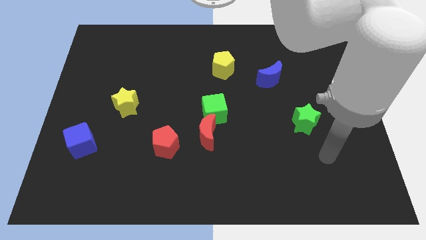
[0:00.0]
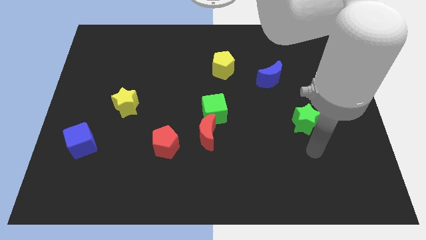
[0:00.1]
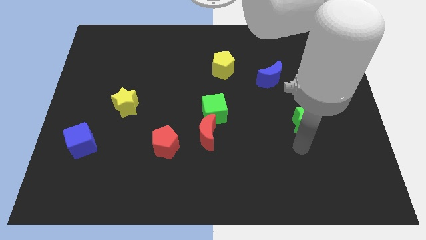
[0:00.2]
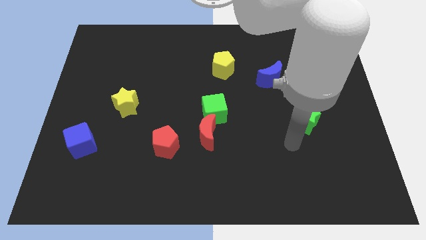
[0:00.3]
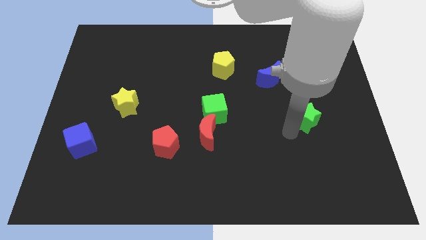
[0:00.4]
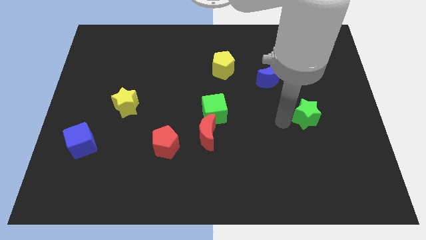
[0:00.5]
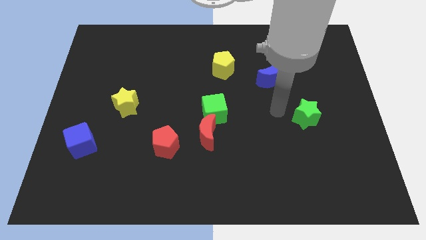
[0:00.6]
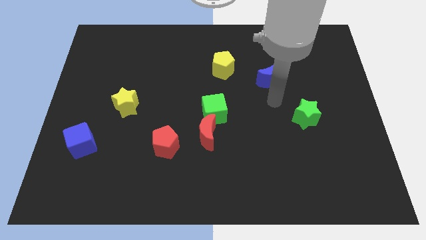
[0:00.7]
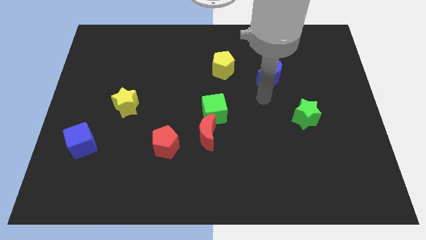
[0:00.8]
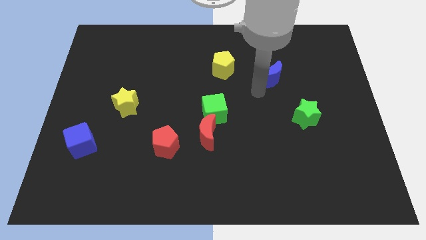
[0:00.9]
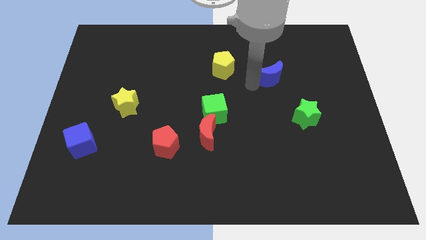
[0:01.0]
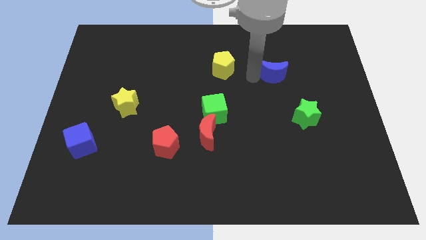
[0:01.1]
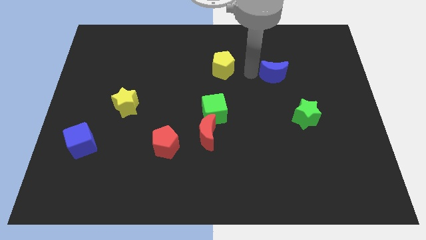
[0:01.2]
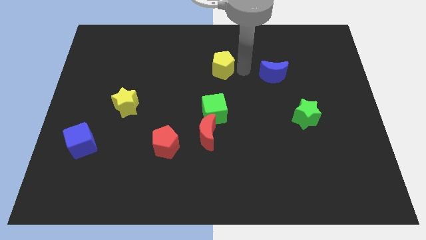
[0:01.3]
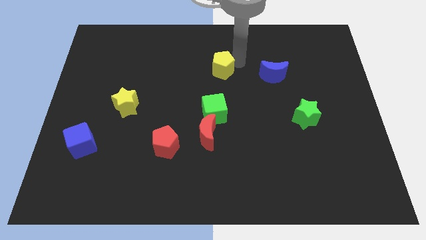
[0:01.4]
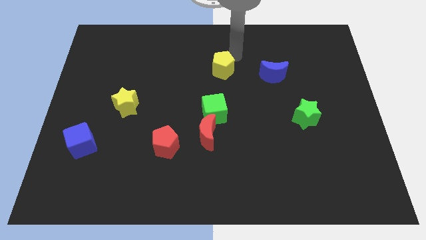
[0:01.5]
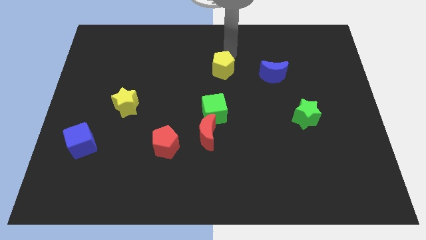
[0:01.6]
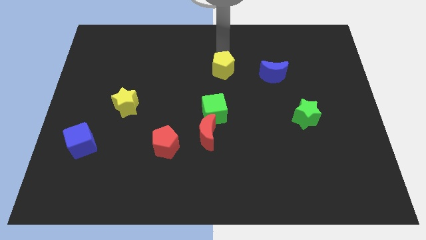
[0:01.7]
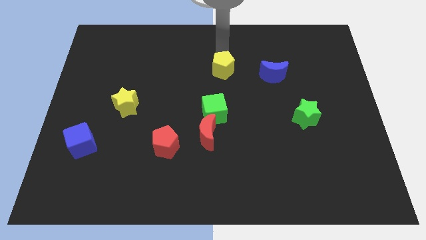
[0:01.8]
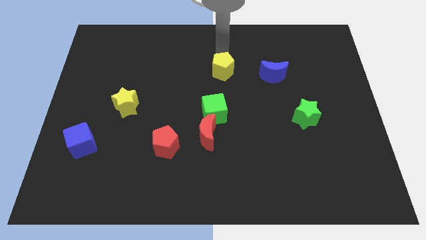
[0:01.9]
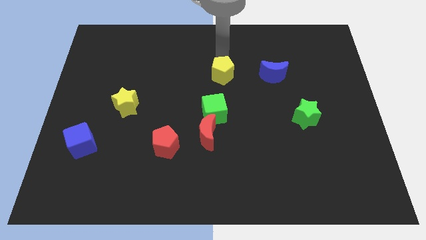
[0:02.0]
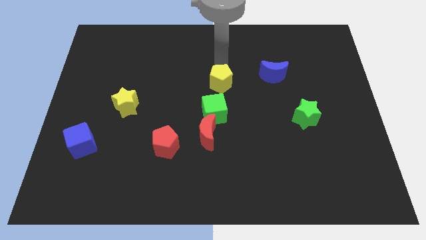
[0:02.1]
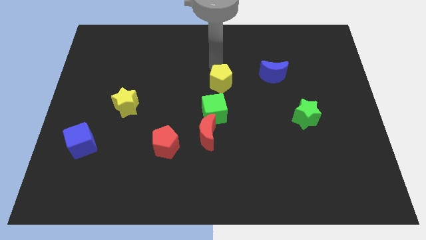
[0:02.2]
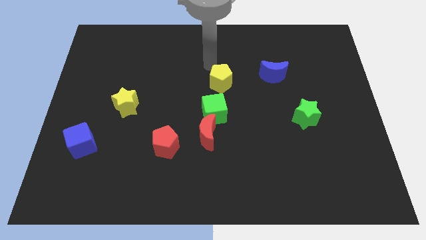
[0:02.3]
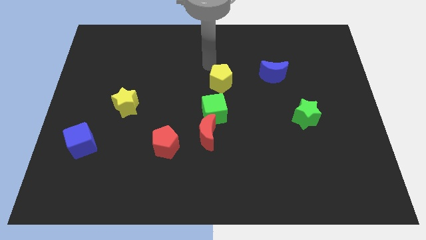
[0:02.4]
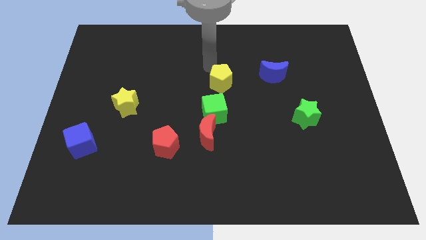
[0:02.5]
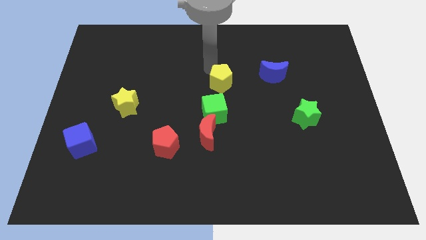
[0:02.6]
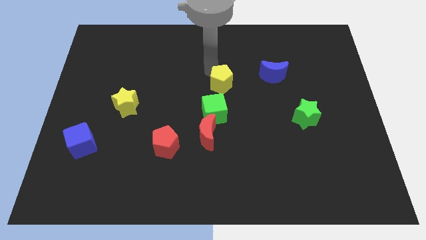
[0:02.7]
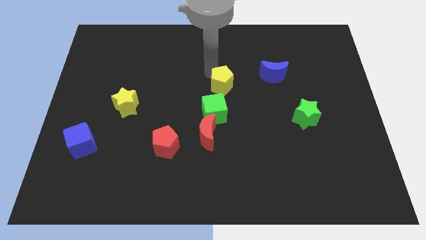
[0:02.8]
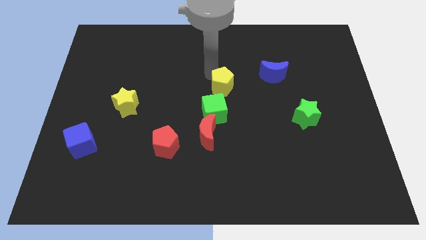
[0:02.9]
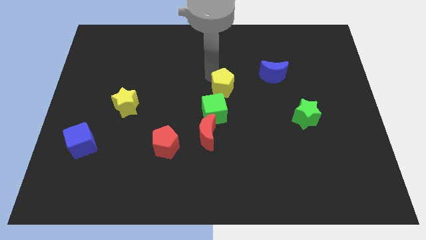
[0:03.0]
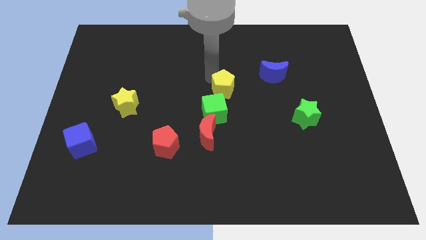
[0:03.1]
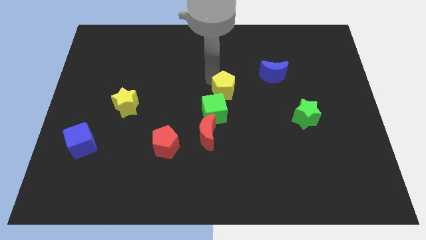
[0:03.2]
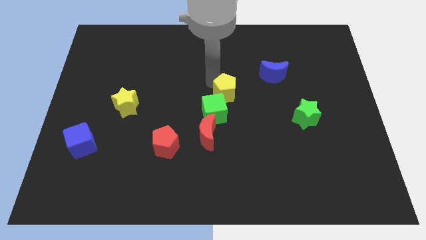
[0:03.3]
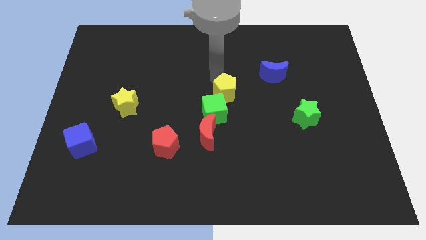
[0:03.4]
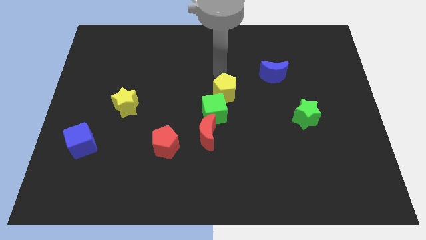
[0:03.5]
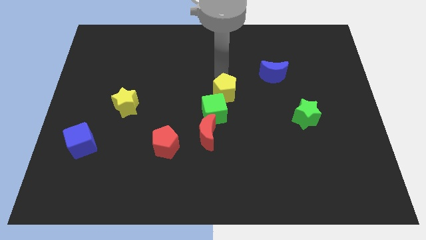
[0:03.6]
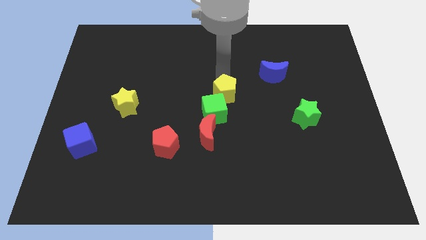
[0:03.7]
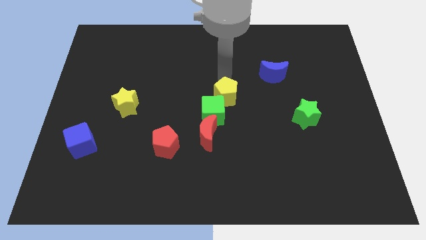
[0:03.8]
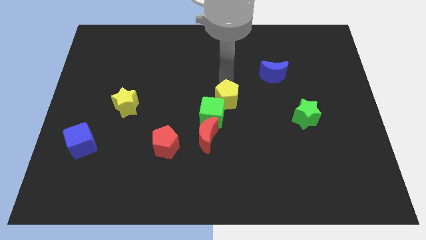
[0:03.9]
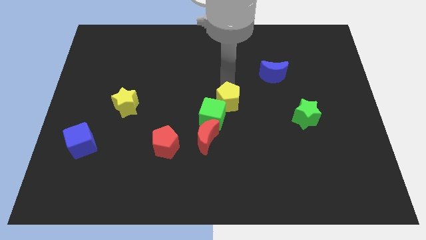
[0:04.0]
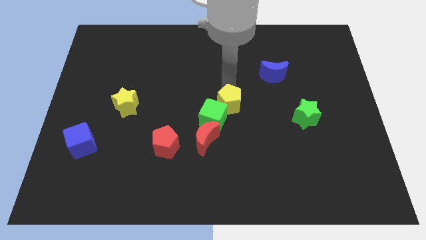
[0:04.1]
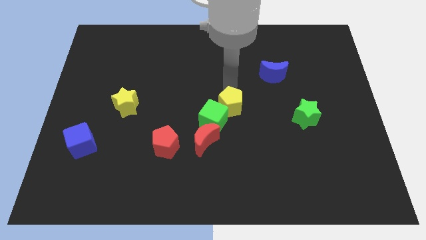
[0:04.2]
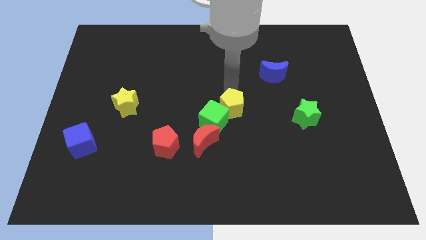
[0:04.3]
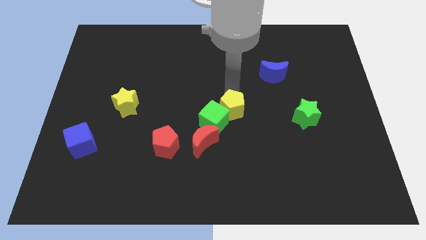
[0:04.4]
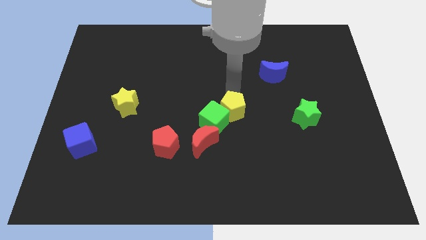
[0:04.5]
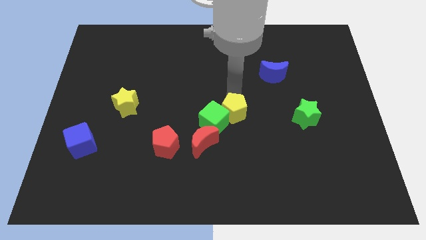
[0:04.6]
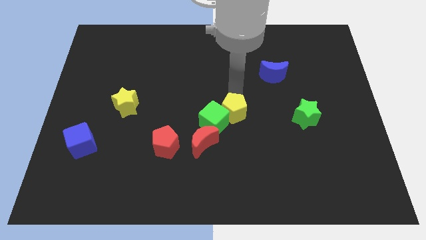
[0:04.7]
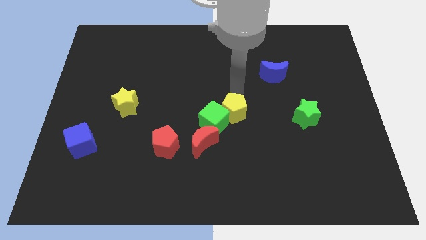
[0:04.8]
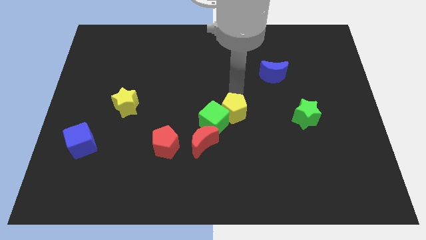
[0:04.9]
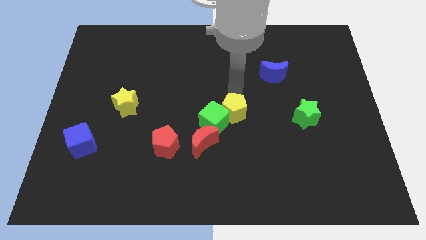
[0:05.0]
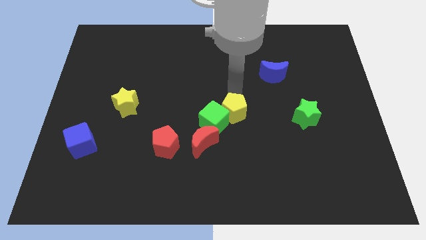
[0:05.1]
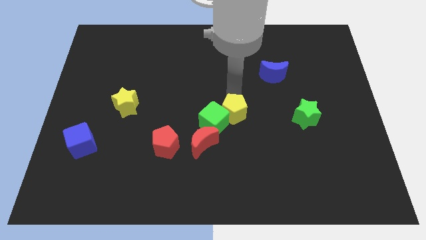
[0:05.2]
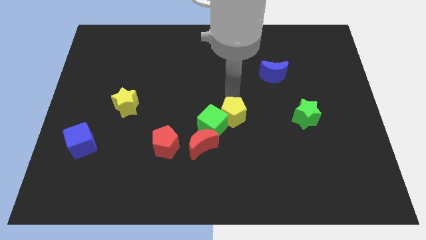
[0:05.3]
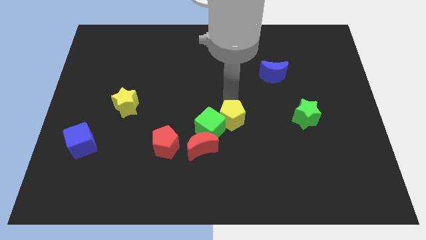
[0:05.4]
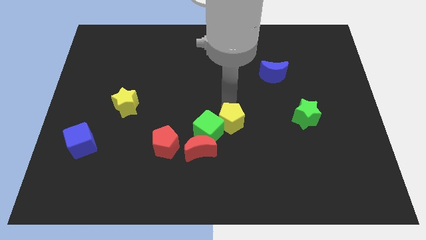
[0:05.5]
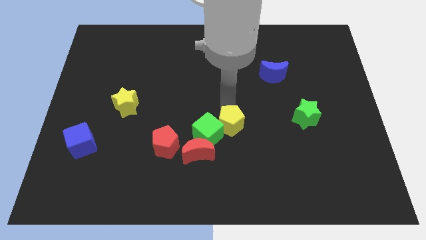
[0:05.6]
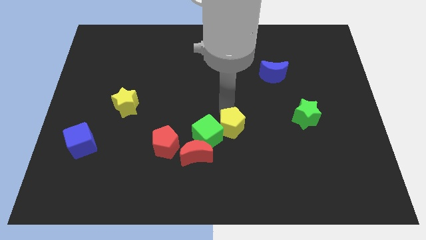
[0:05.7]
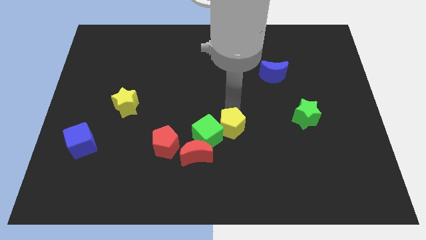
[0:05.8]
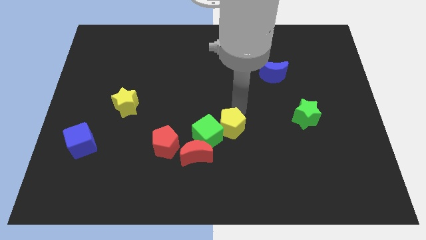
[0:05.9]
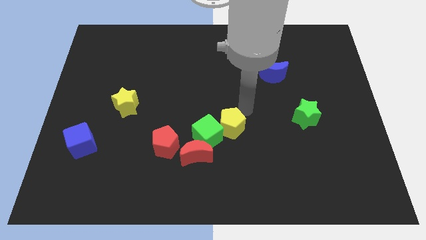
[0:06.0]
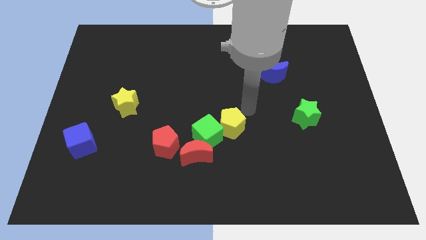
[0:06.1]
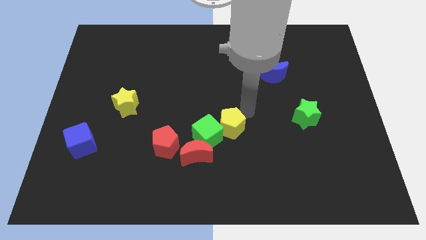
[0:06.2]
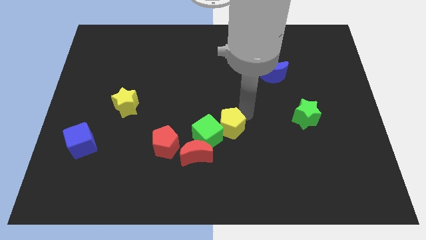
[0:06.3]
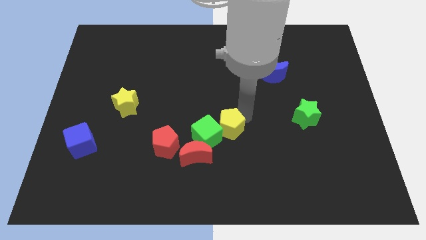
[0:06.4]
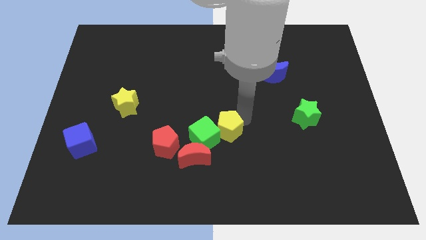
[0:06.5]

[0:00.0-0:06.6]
move the yellow pentagon to the right of the red pentagon

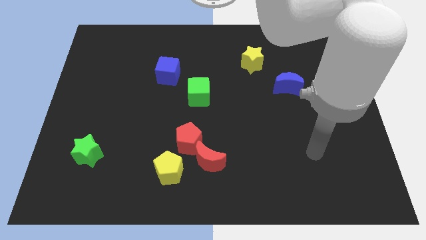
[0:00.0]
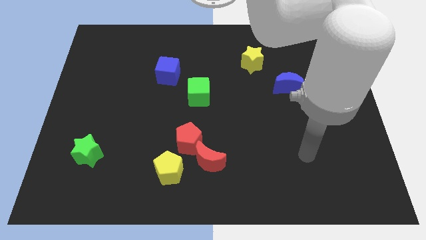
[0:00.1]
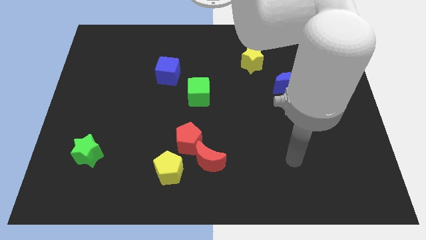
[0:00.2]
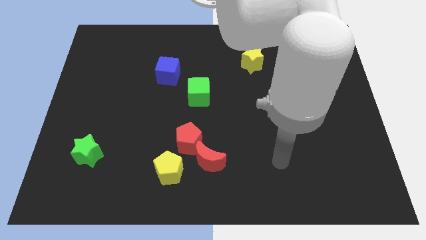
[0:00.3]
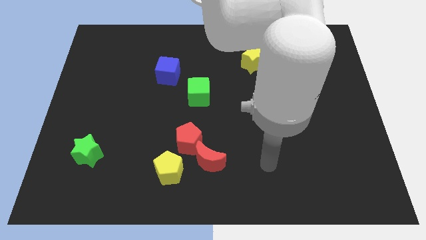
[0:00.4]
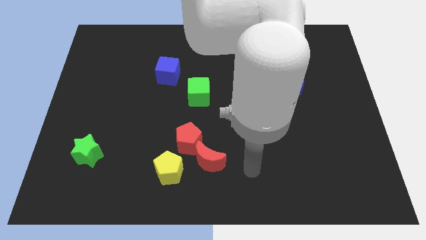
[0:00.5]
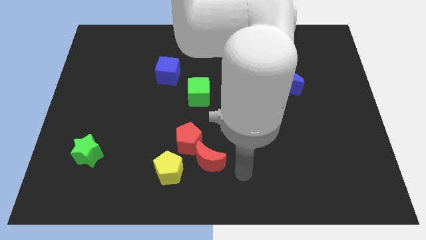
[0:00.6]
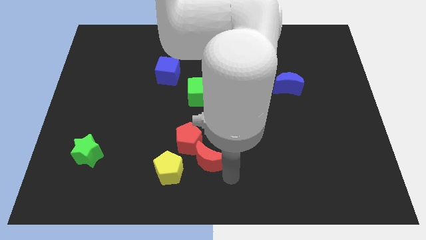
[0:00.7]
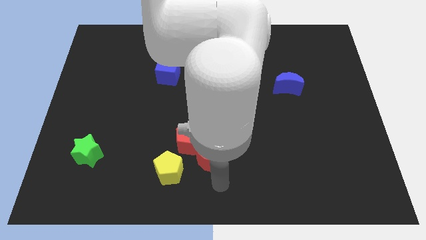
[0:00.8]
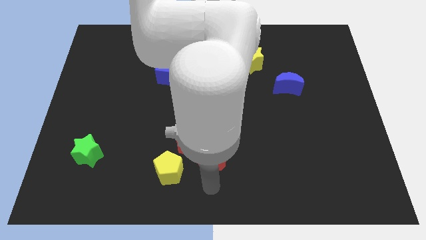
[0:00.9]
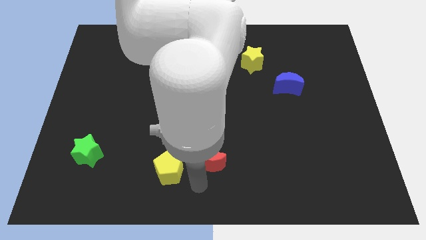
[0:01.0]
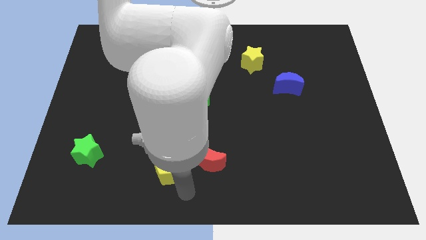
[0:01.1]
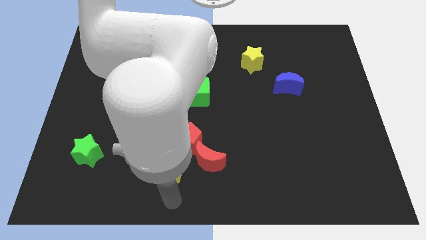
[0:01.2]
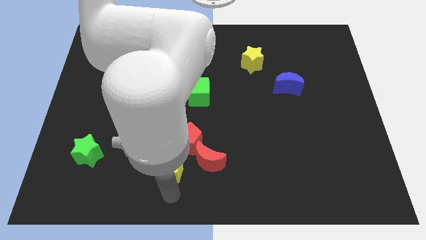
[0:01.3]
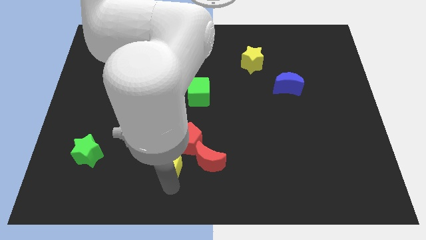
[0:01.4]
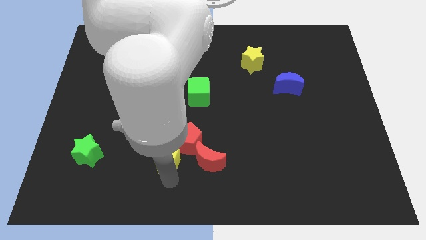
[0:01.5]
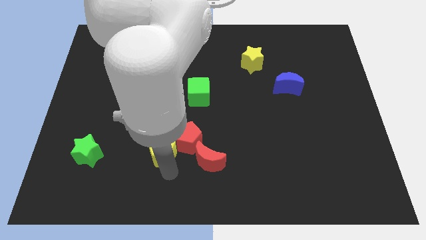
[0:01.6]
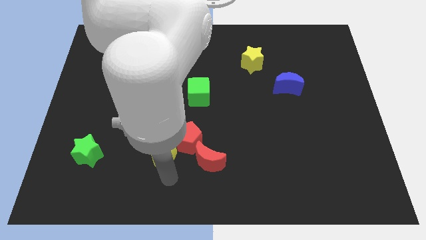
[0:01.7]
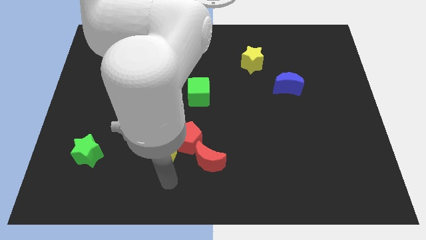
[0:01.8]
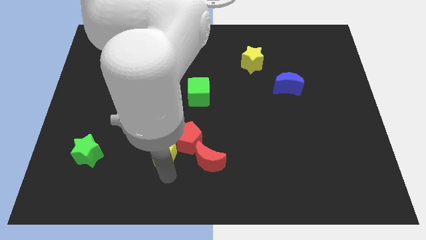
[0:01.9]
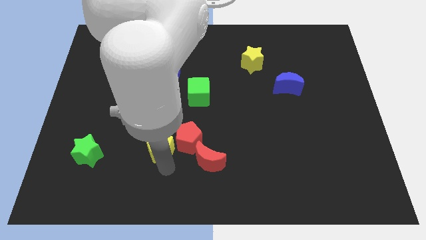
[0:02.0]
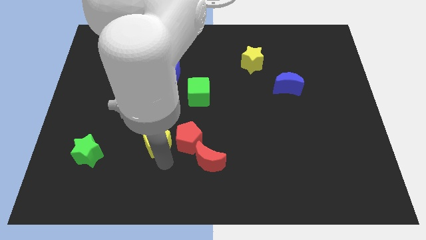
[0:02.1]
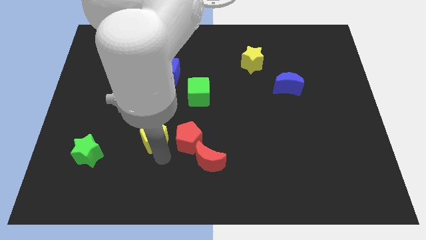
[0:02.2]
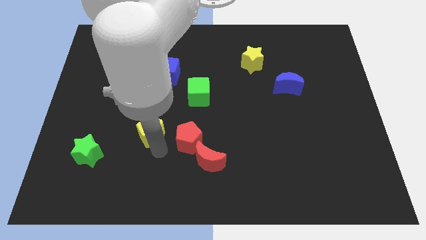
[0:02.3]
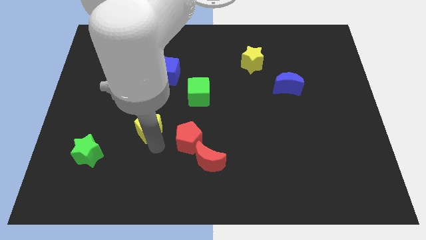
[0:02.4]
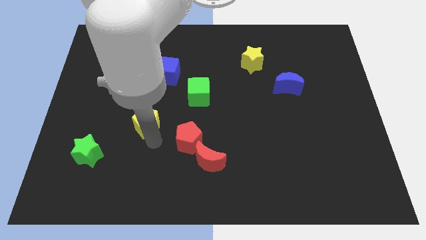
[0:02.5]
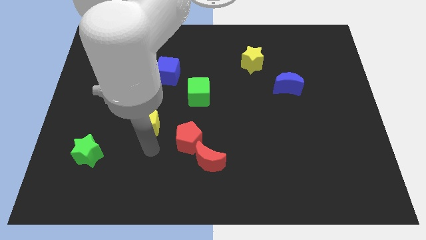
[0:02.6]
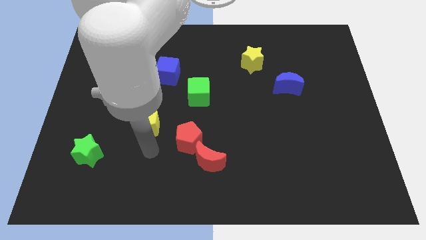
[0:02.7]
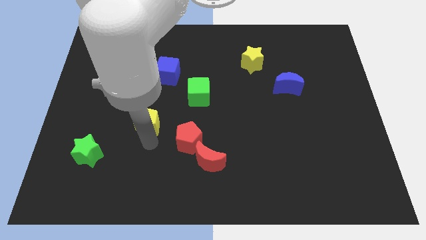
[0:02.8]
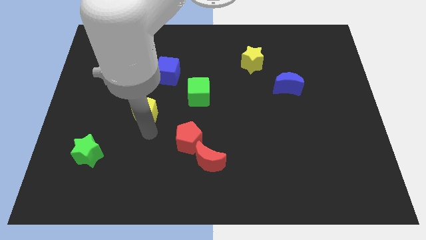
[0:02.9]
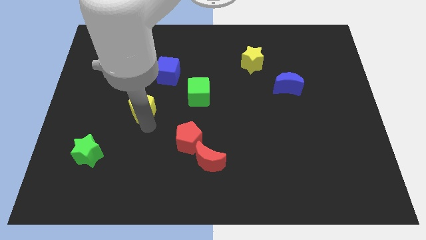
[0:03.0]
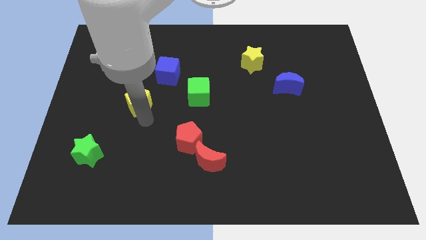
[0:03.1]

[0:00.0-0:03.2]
push the yellow pentagon to the bottom left side of the blue cube
